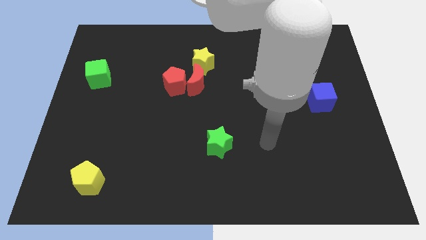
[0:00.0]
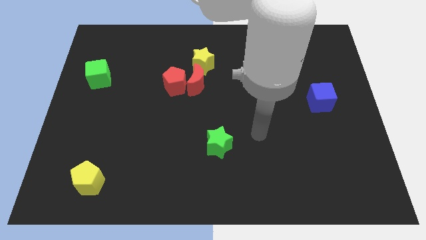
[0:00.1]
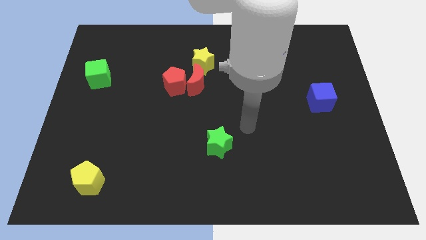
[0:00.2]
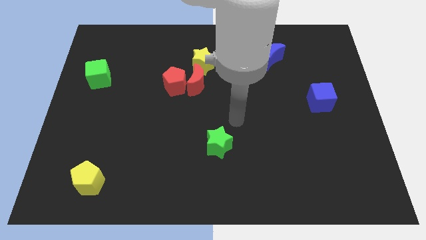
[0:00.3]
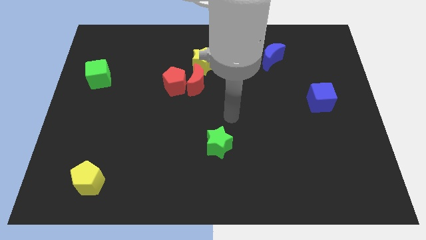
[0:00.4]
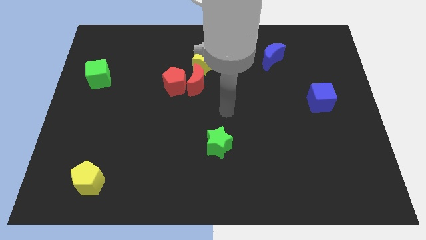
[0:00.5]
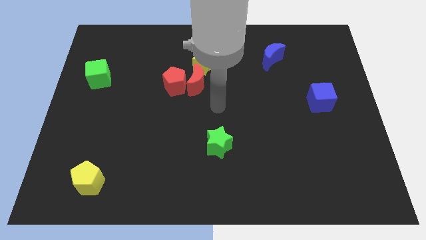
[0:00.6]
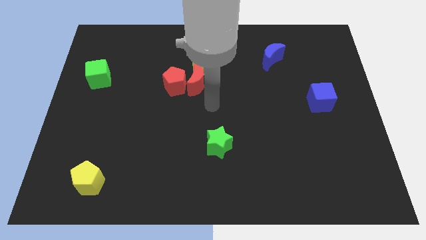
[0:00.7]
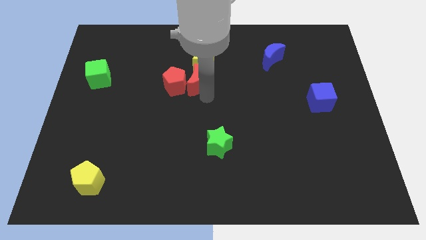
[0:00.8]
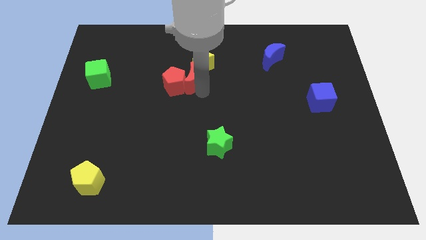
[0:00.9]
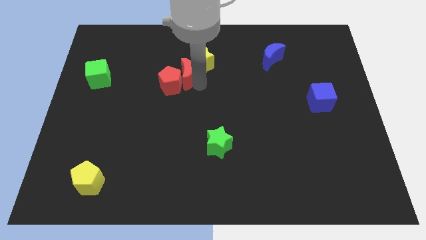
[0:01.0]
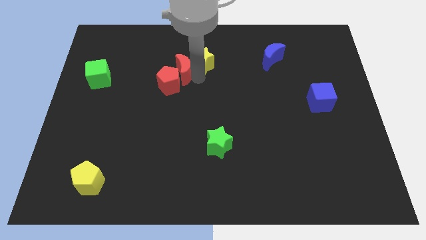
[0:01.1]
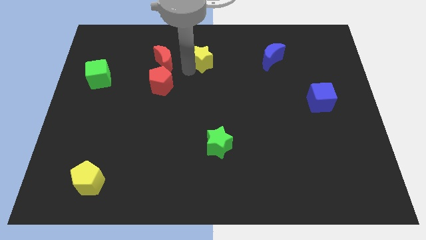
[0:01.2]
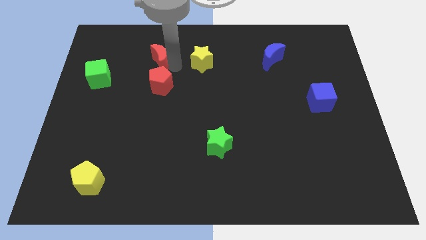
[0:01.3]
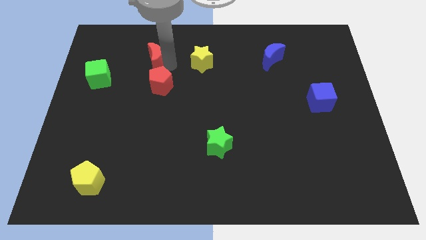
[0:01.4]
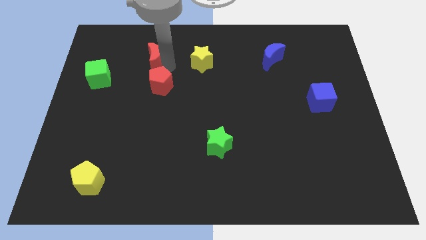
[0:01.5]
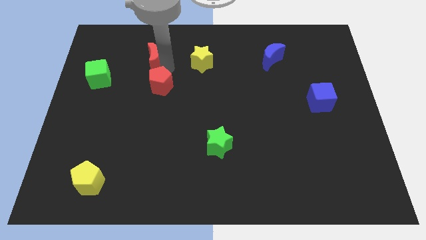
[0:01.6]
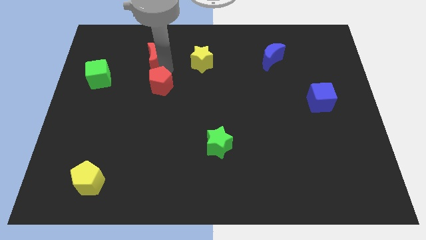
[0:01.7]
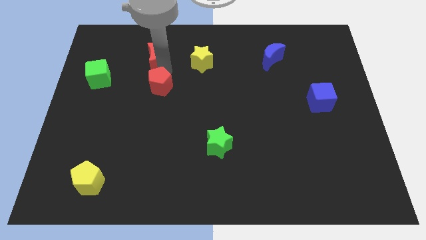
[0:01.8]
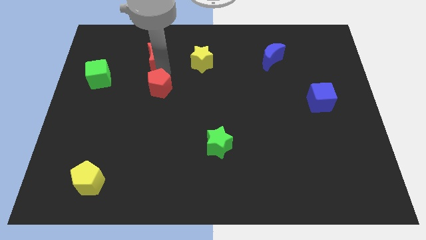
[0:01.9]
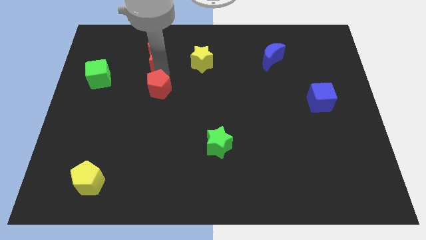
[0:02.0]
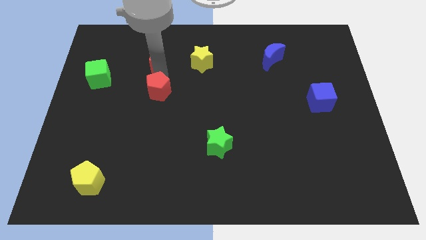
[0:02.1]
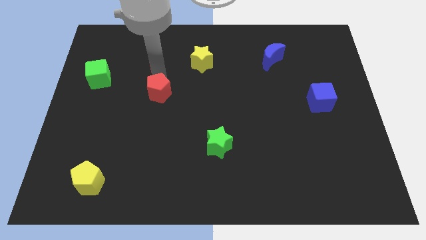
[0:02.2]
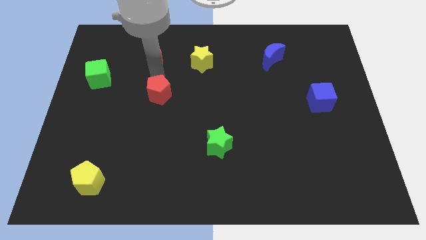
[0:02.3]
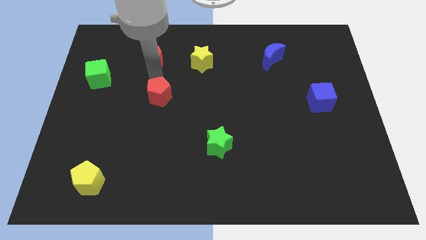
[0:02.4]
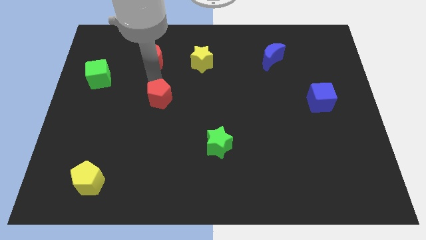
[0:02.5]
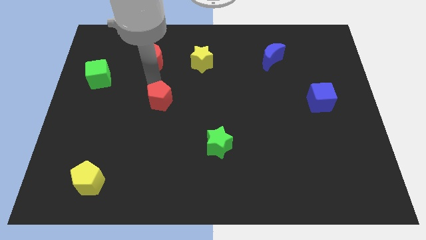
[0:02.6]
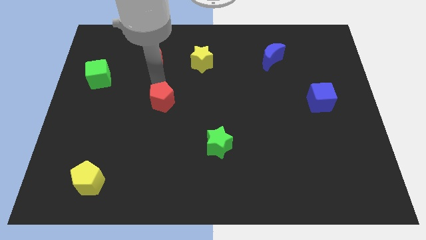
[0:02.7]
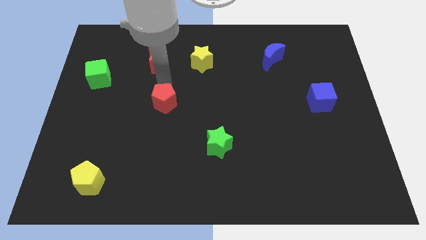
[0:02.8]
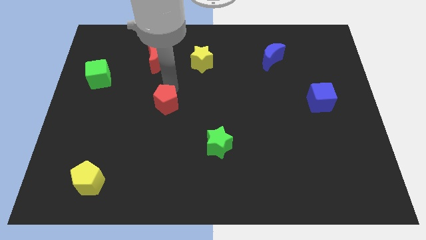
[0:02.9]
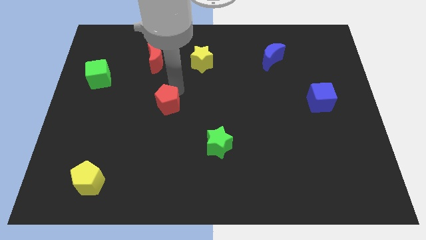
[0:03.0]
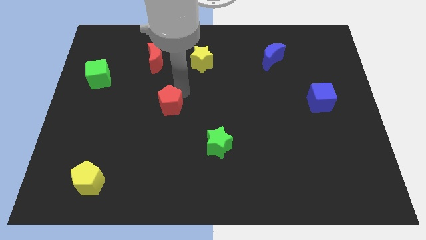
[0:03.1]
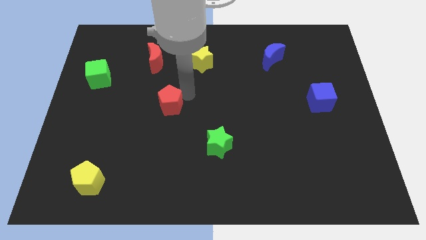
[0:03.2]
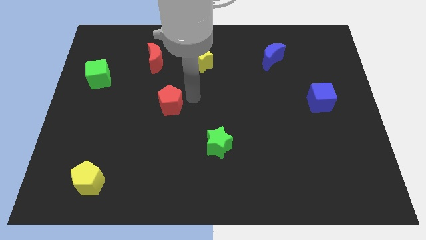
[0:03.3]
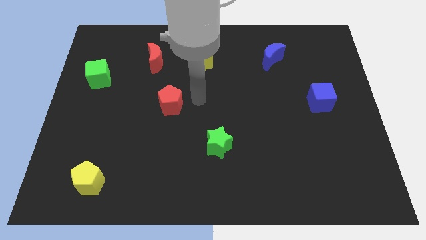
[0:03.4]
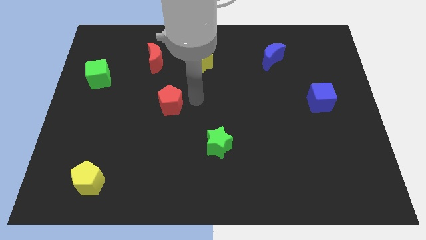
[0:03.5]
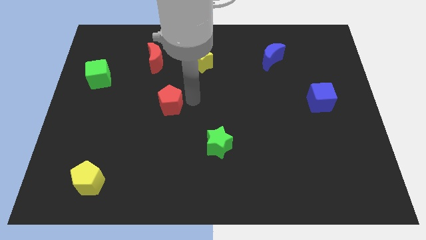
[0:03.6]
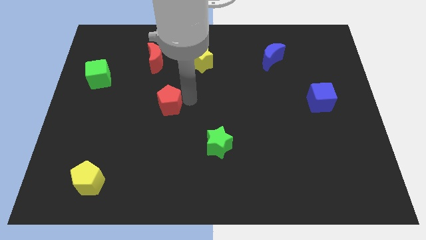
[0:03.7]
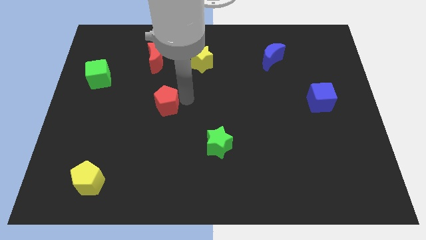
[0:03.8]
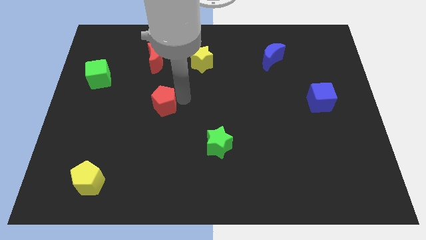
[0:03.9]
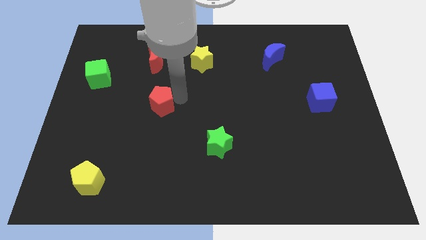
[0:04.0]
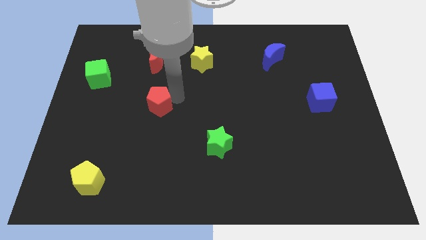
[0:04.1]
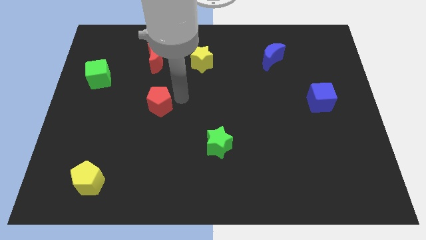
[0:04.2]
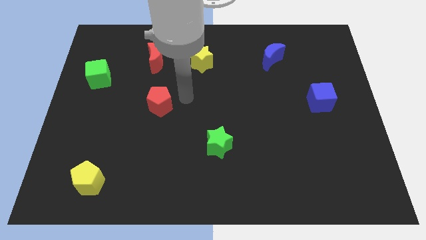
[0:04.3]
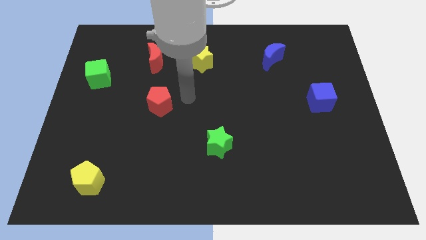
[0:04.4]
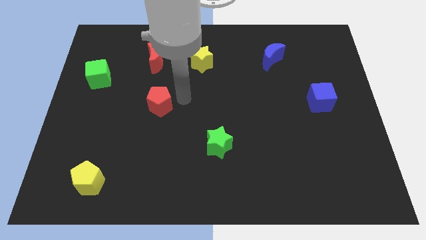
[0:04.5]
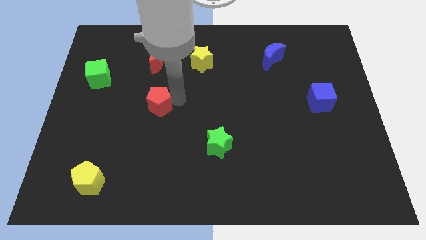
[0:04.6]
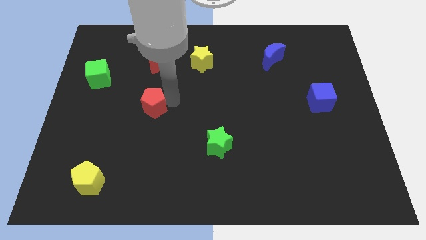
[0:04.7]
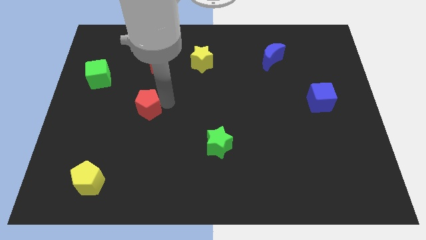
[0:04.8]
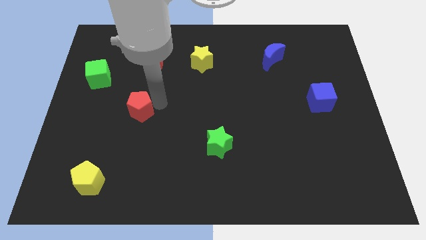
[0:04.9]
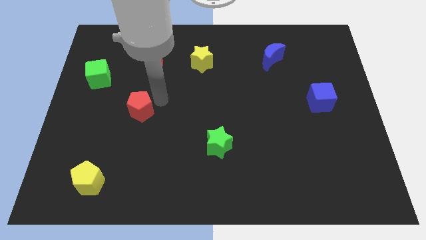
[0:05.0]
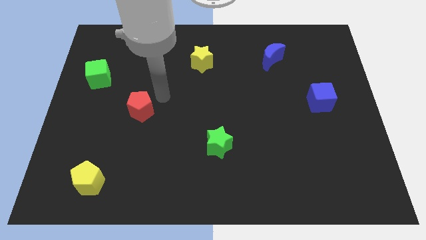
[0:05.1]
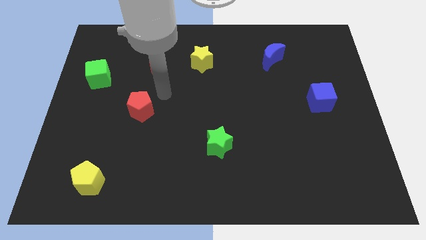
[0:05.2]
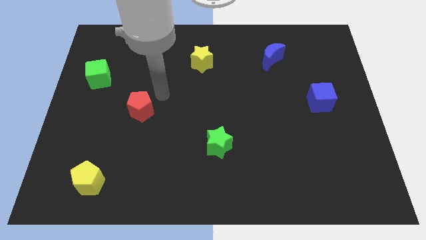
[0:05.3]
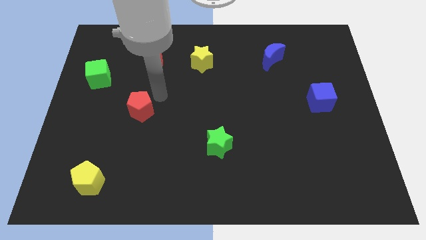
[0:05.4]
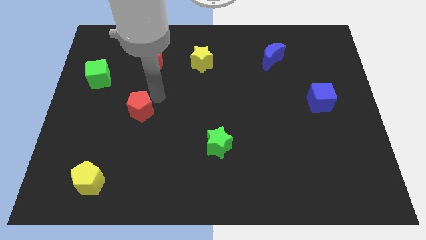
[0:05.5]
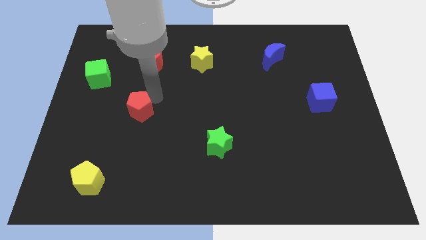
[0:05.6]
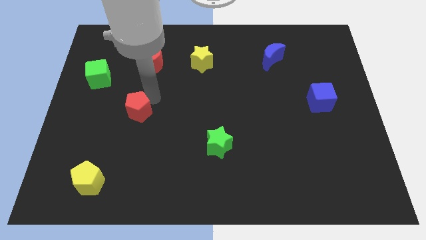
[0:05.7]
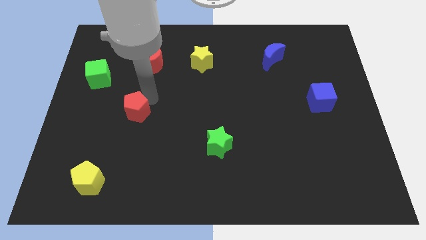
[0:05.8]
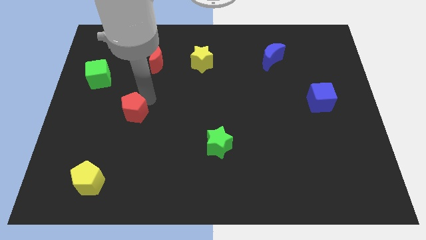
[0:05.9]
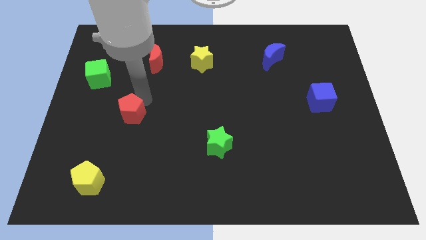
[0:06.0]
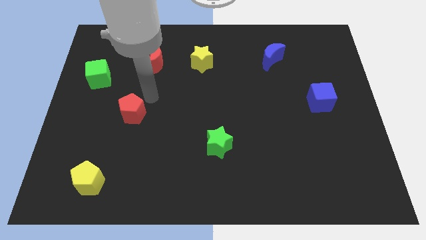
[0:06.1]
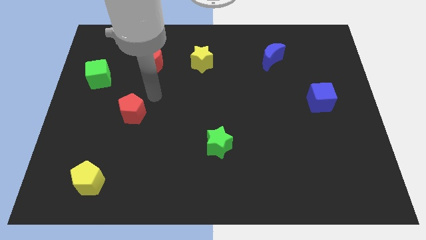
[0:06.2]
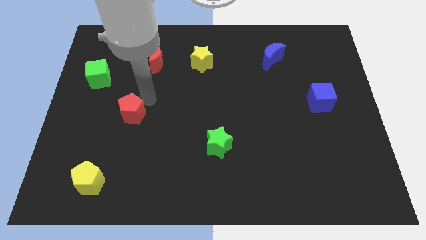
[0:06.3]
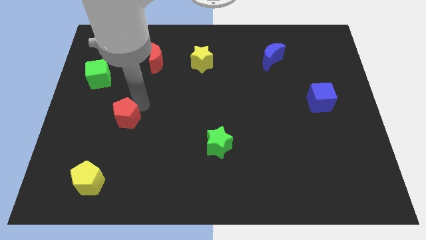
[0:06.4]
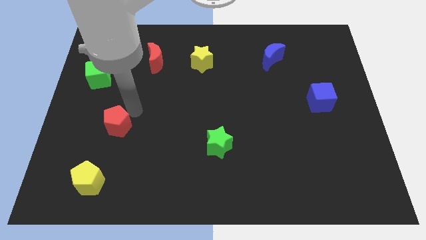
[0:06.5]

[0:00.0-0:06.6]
push the red pentagon above the yellow pentagon

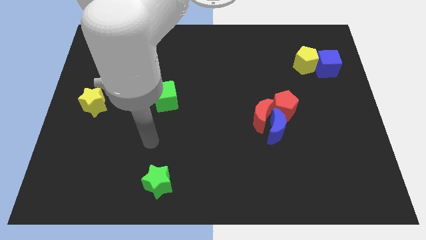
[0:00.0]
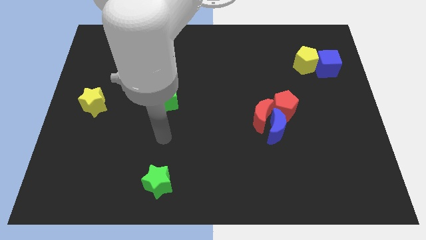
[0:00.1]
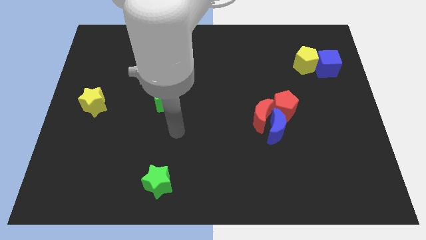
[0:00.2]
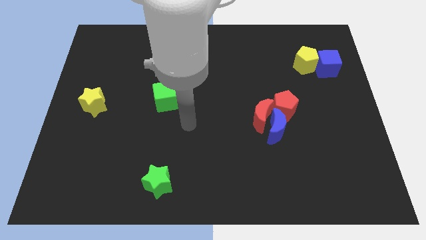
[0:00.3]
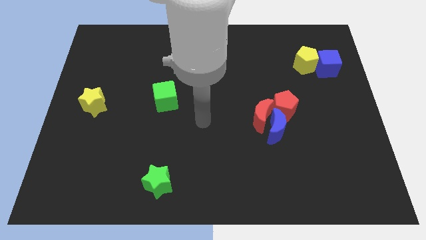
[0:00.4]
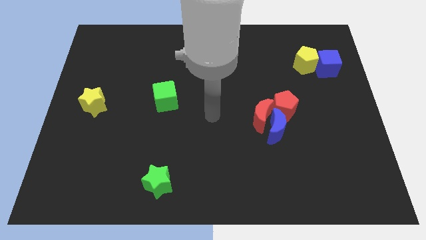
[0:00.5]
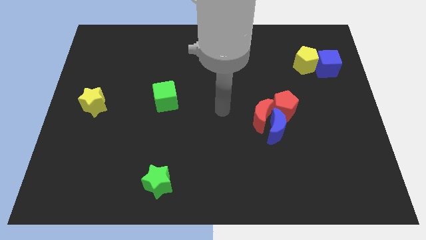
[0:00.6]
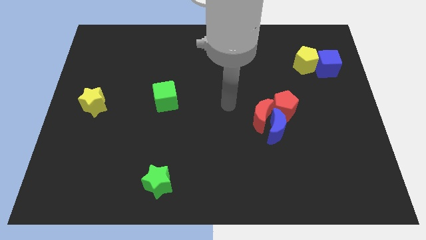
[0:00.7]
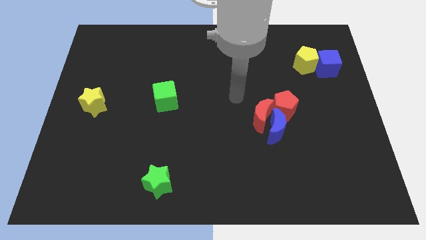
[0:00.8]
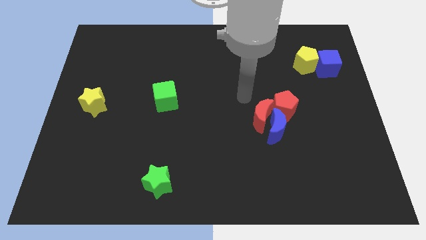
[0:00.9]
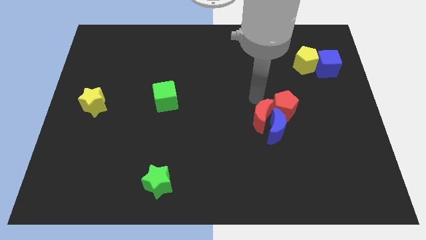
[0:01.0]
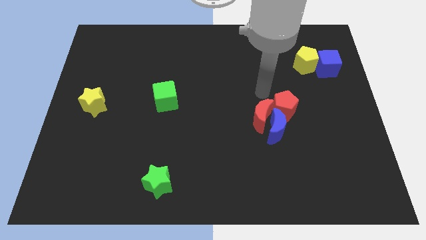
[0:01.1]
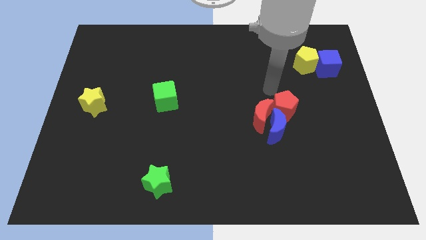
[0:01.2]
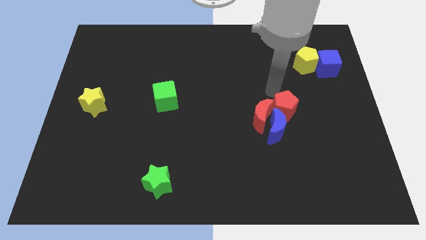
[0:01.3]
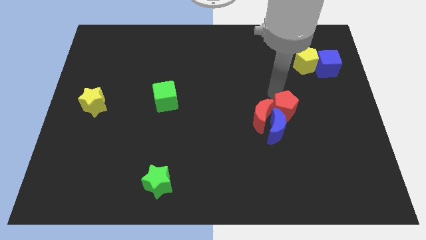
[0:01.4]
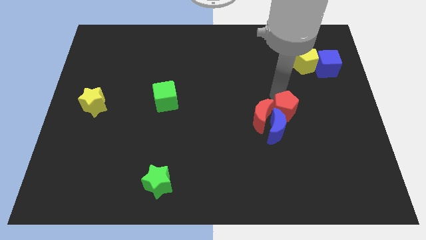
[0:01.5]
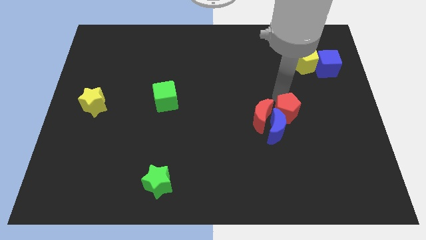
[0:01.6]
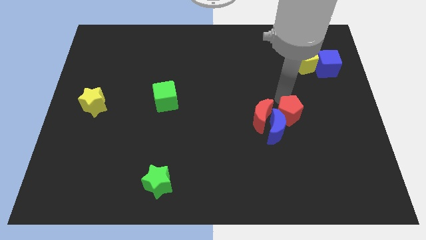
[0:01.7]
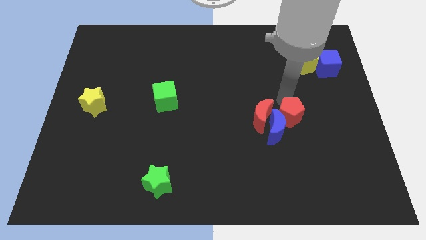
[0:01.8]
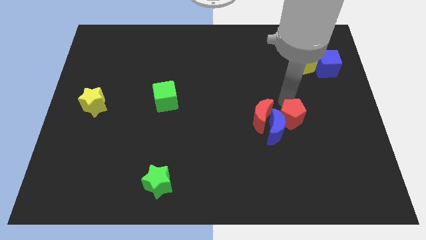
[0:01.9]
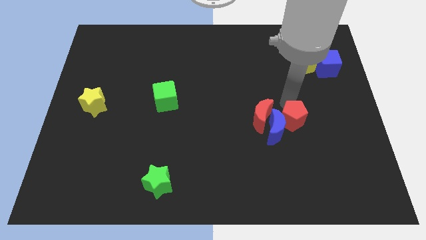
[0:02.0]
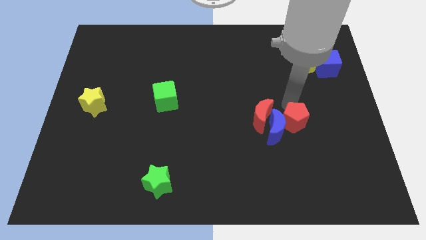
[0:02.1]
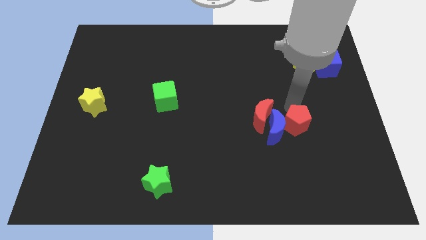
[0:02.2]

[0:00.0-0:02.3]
put the red pentagon to the bottom right of the blue moon
